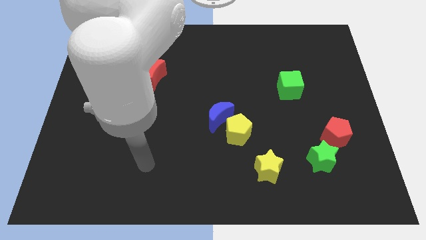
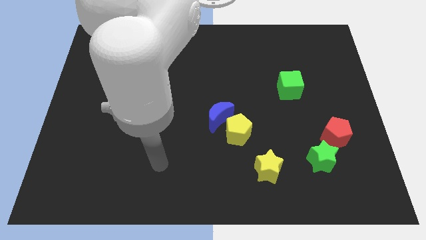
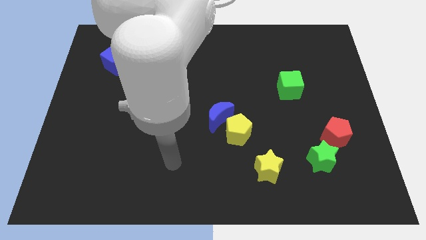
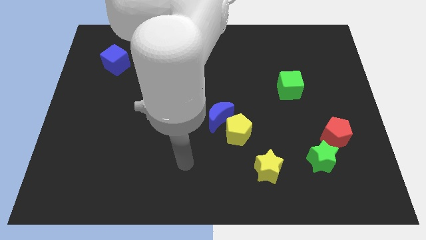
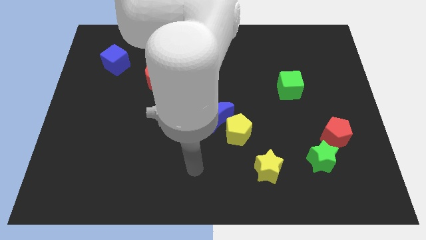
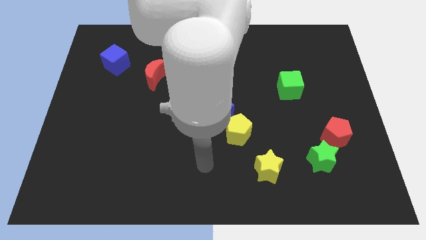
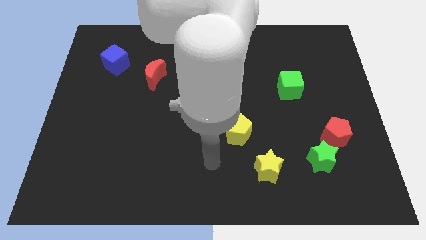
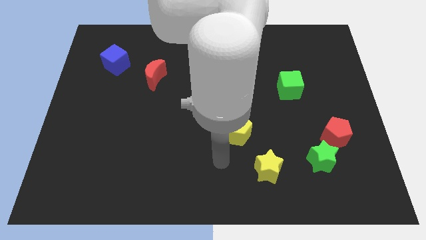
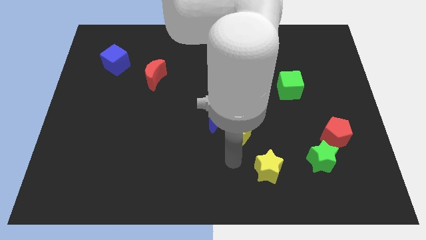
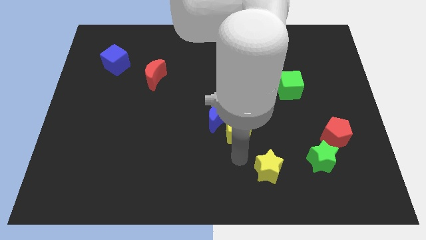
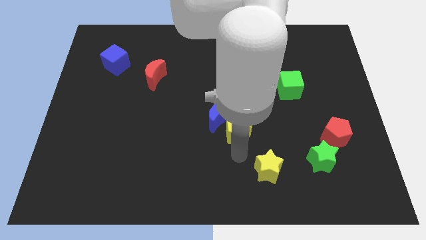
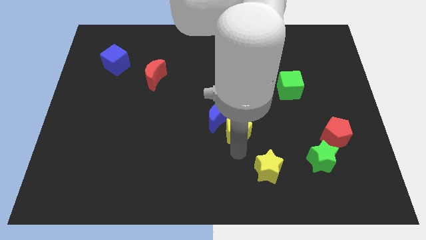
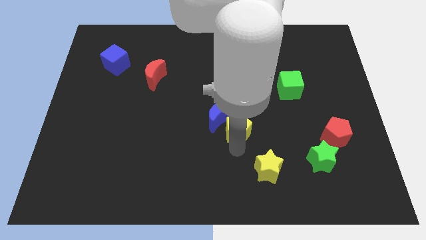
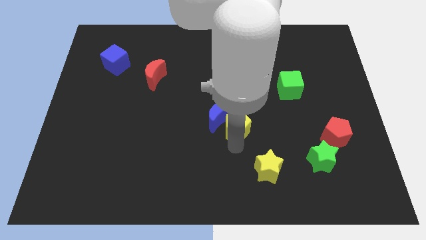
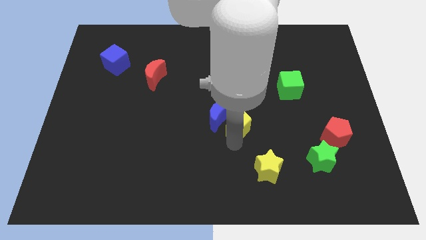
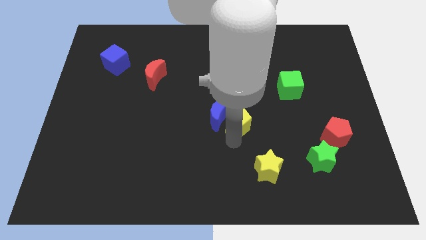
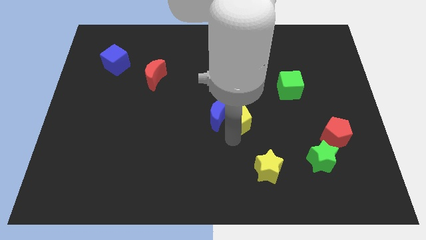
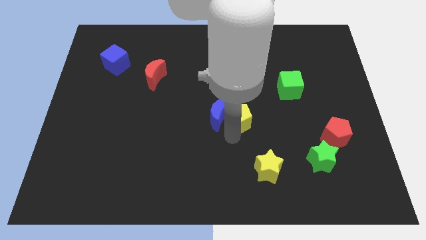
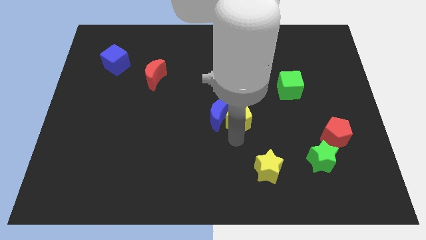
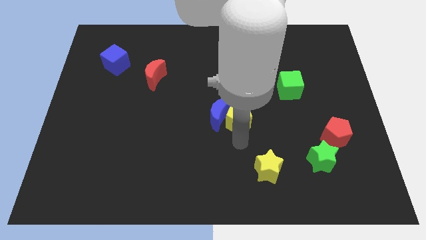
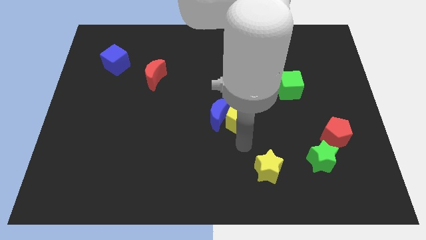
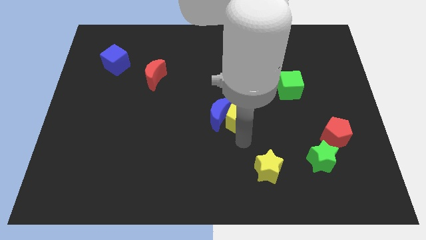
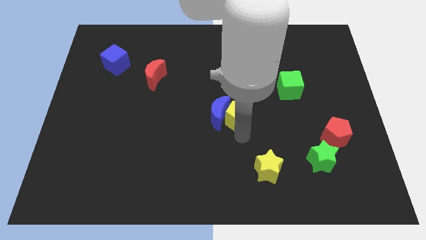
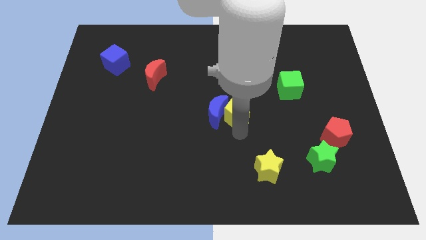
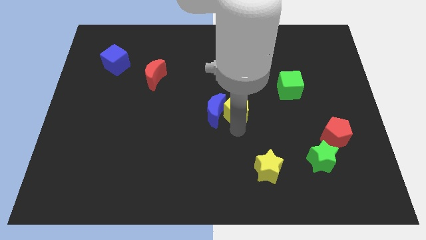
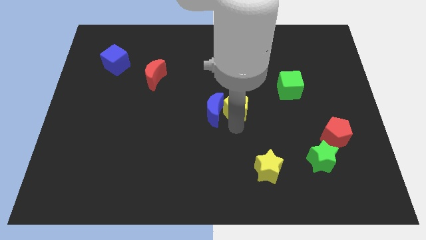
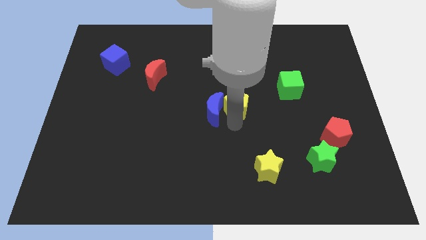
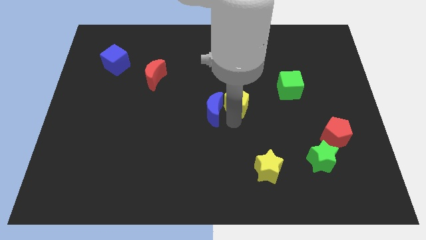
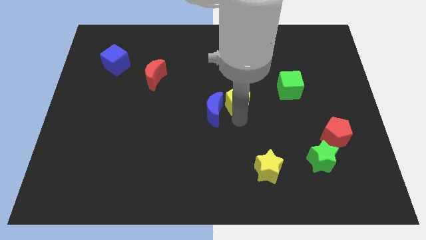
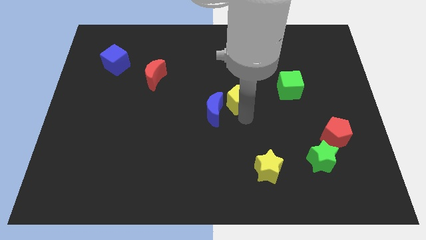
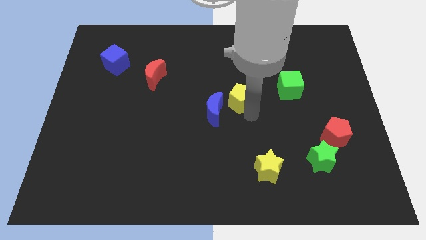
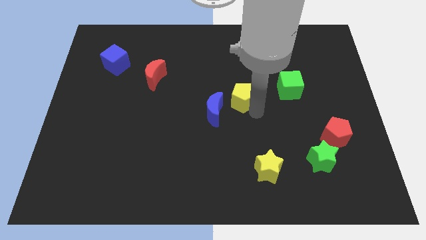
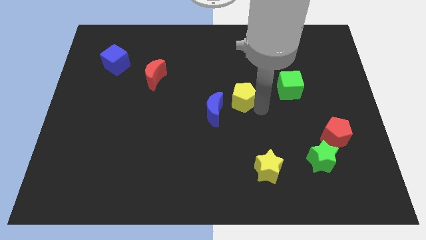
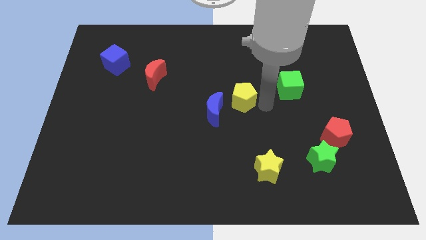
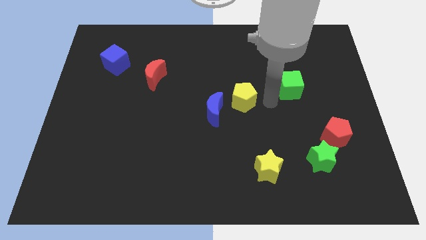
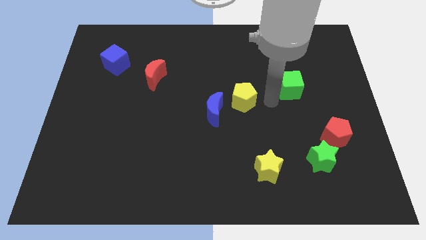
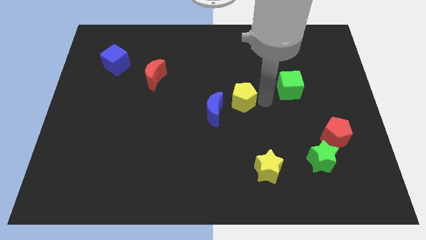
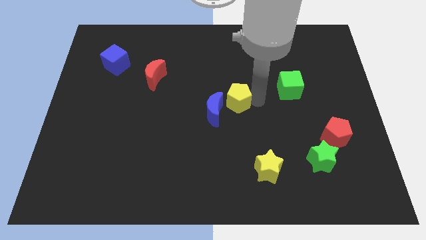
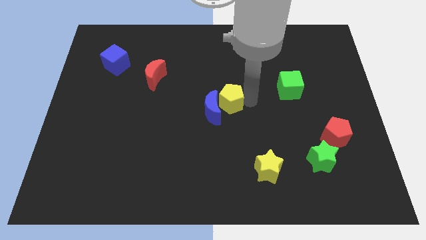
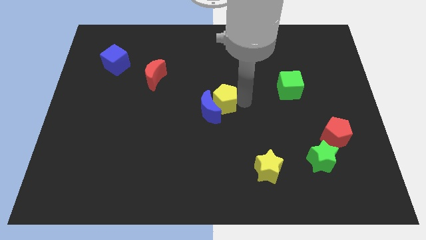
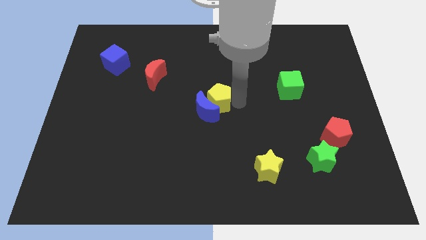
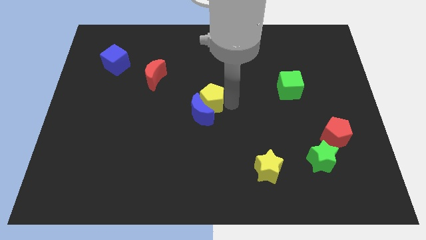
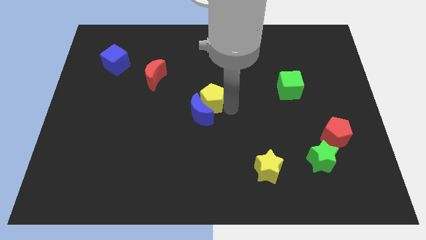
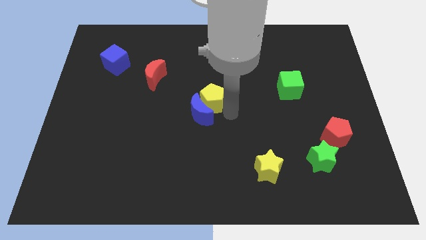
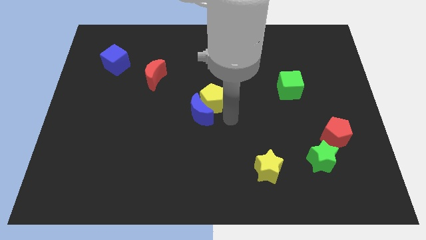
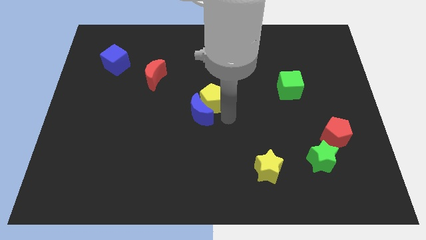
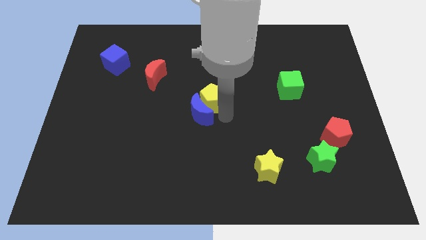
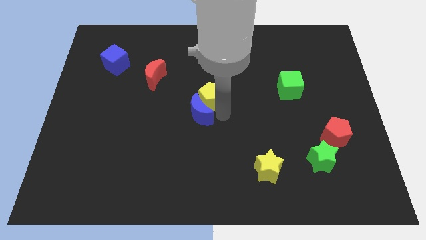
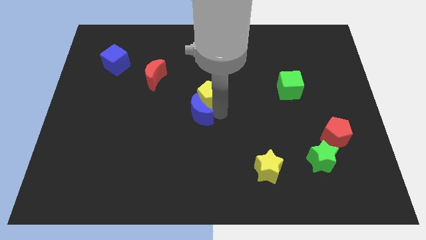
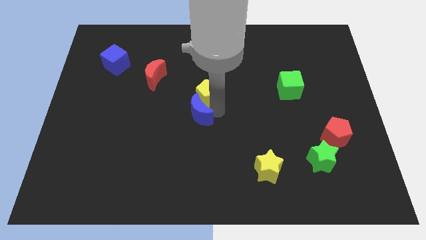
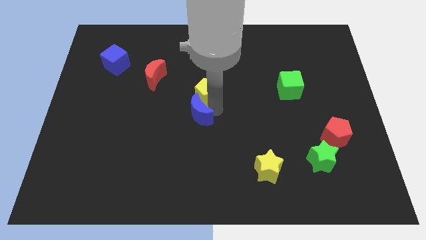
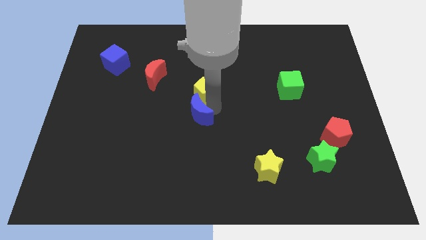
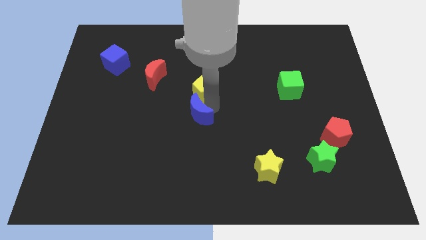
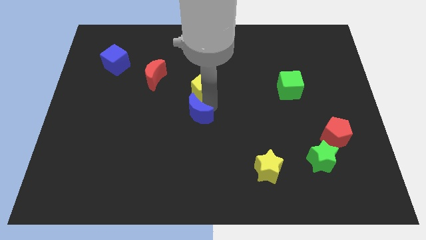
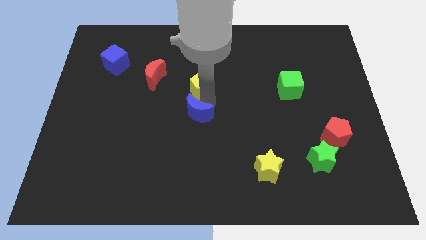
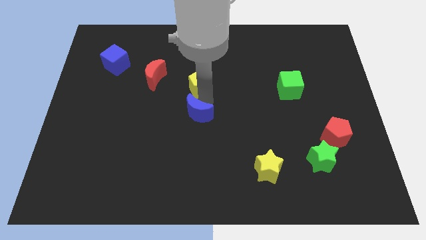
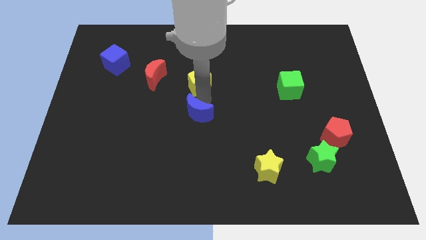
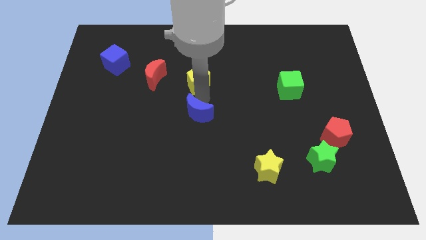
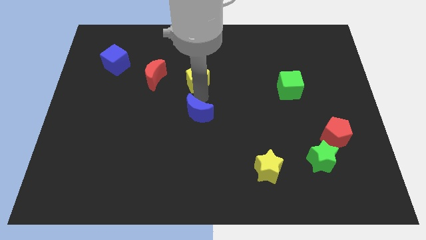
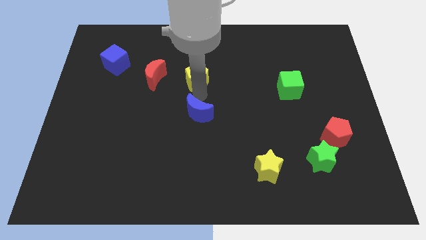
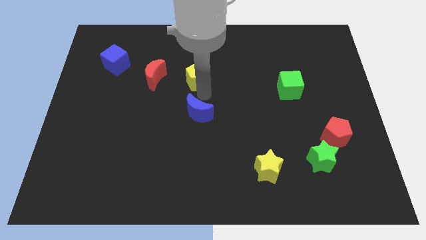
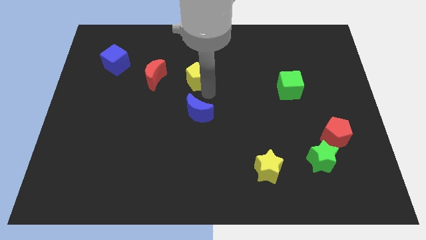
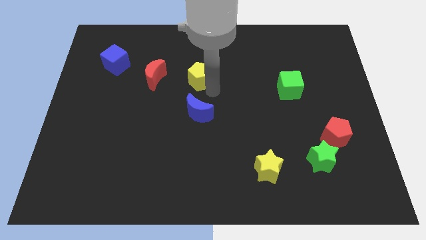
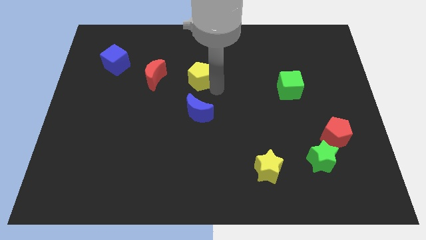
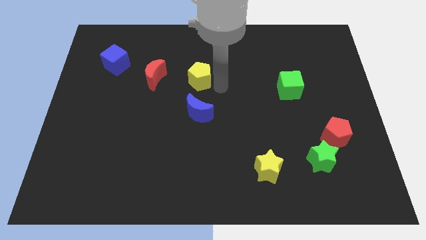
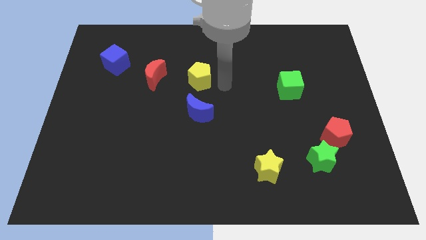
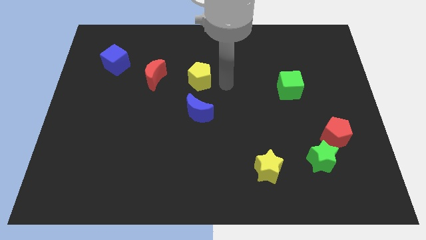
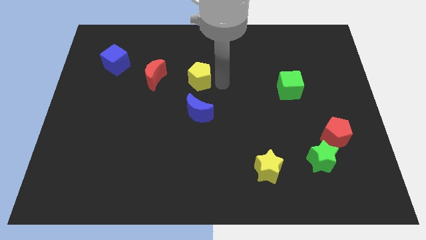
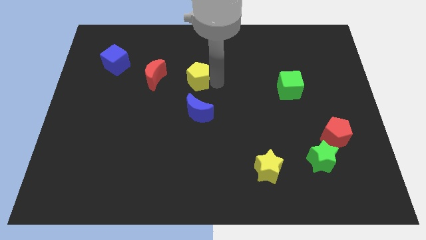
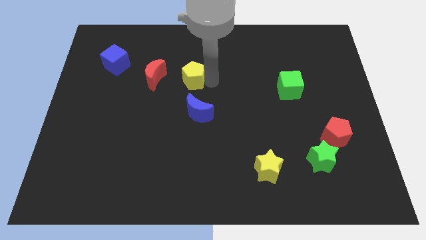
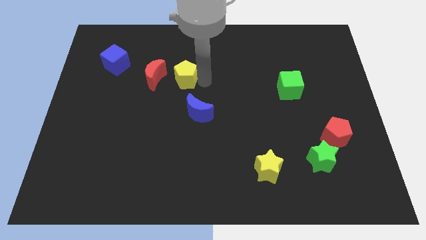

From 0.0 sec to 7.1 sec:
slide the yellow pentagon upwards and to the left

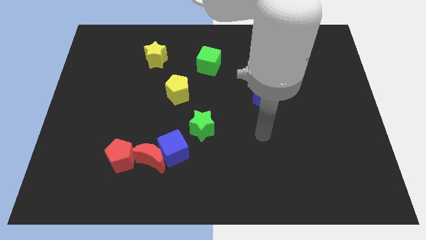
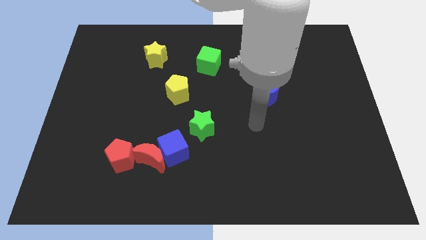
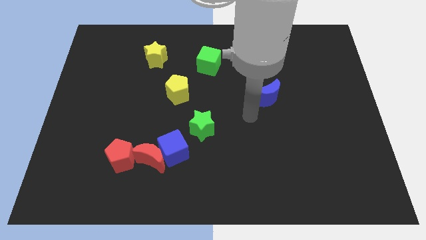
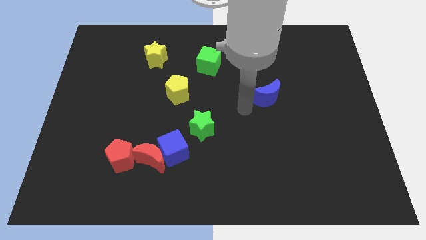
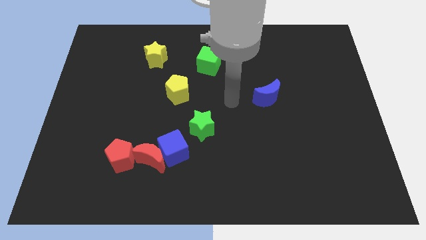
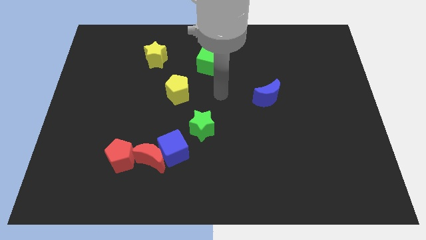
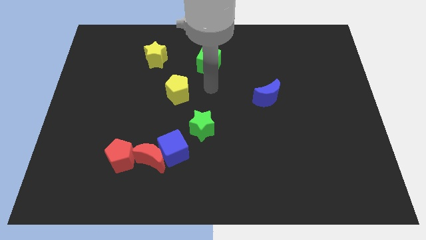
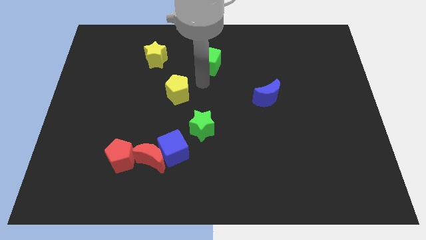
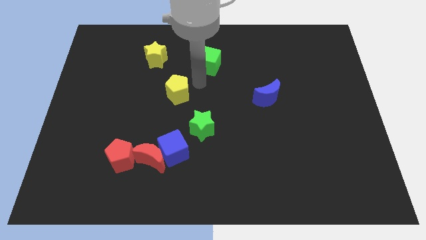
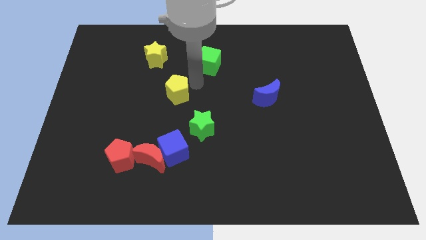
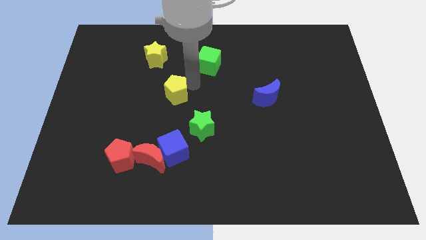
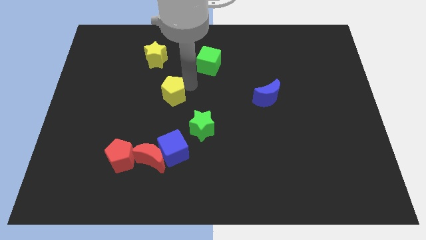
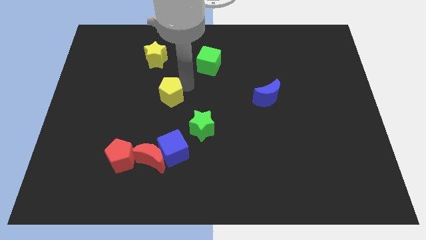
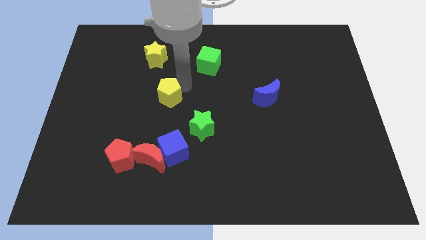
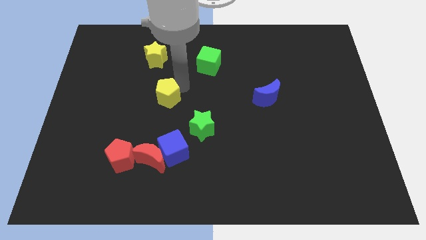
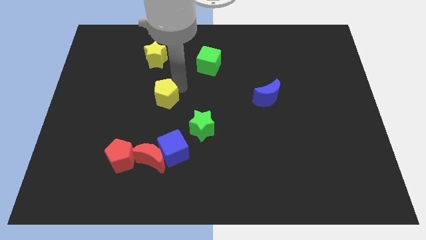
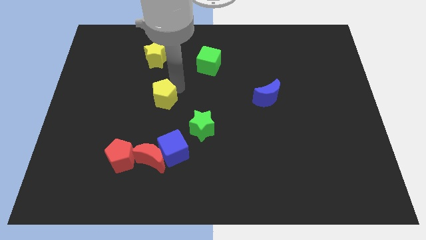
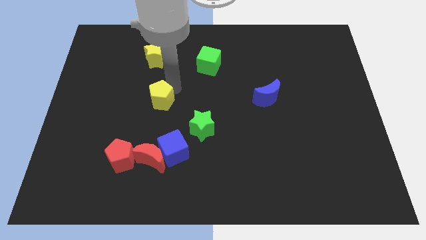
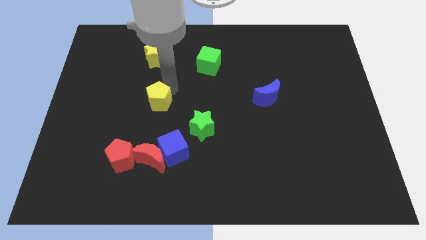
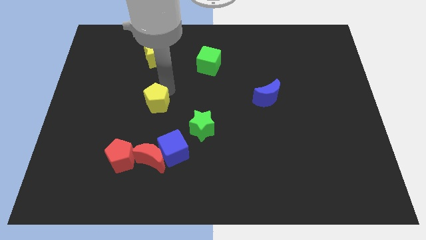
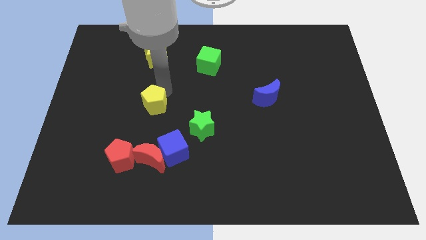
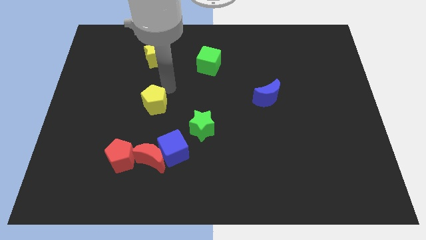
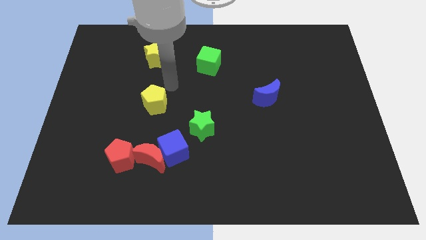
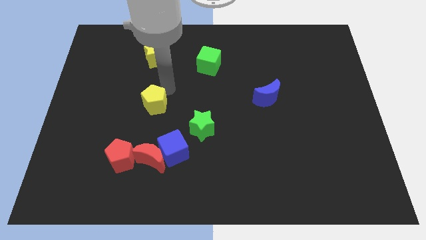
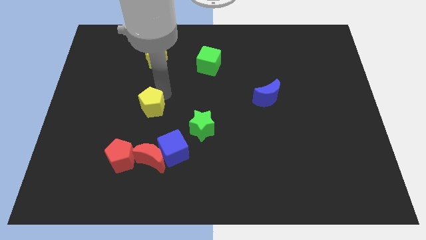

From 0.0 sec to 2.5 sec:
slide the yellow pentagon down and left diagonally a little
